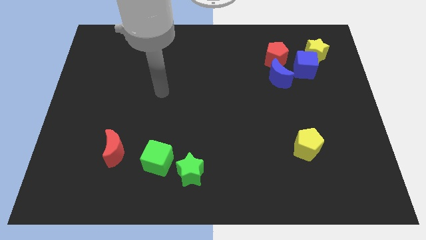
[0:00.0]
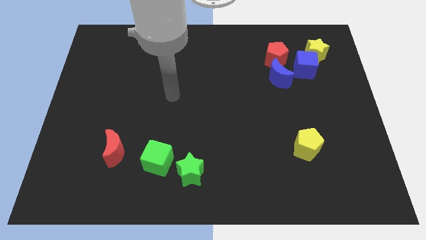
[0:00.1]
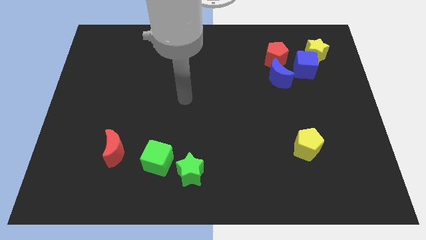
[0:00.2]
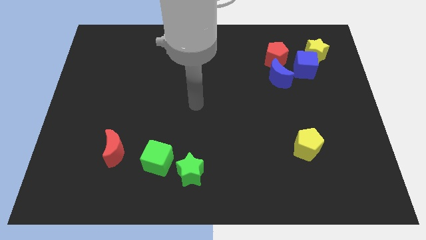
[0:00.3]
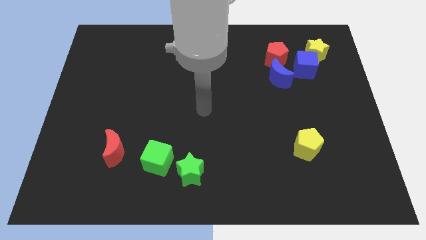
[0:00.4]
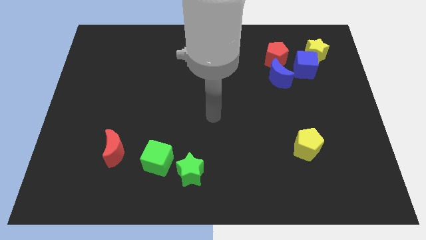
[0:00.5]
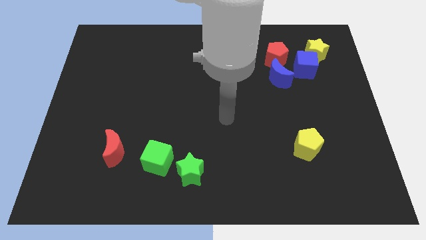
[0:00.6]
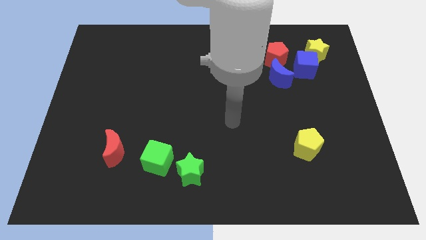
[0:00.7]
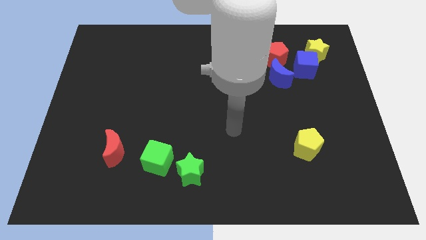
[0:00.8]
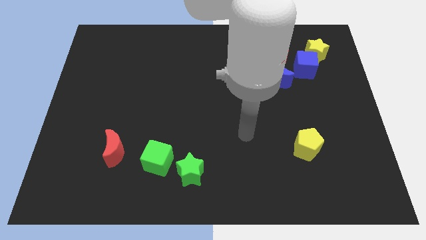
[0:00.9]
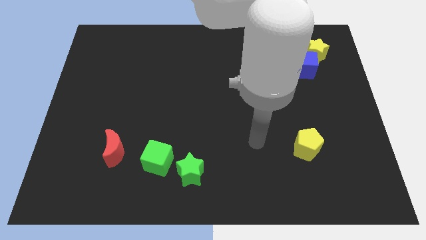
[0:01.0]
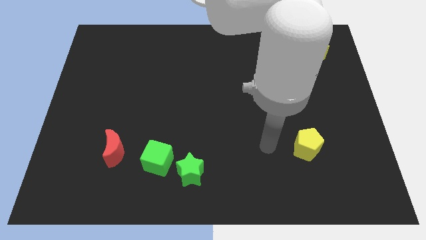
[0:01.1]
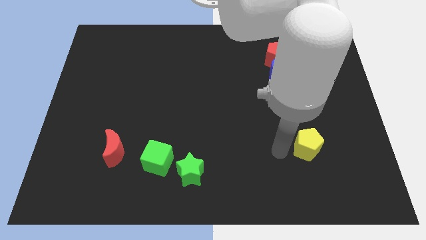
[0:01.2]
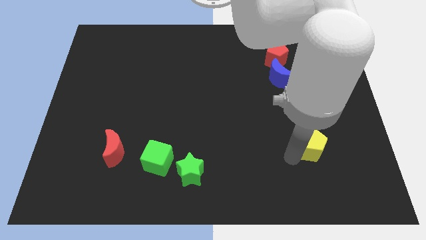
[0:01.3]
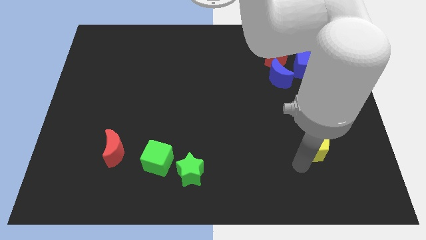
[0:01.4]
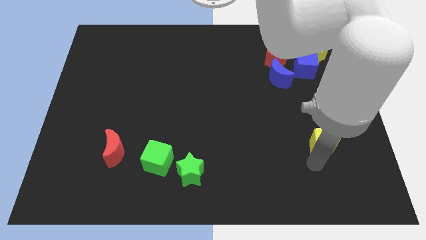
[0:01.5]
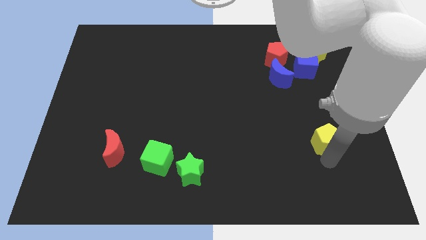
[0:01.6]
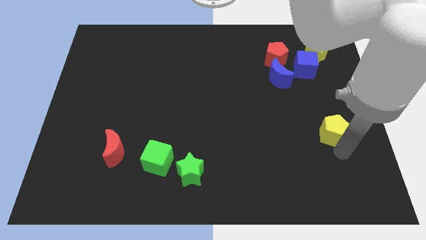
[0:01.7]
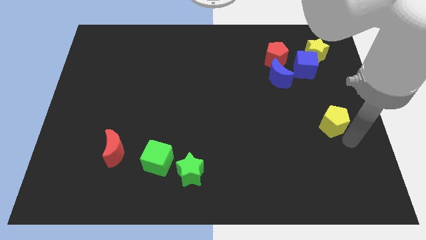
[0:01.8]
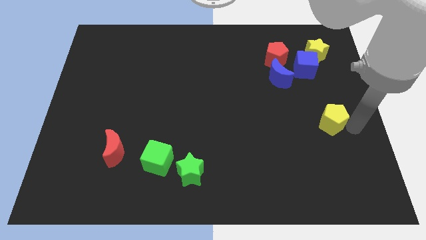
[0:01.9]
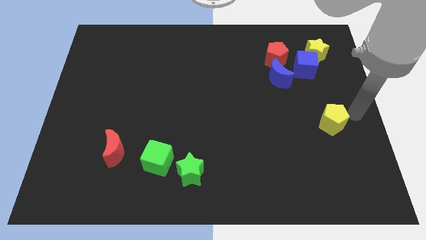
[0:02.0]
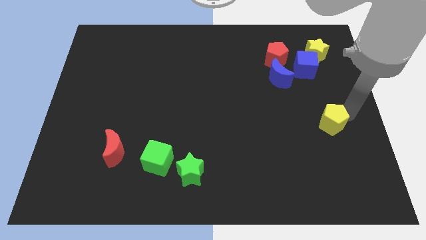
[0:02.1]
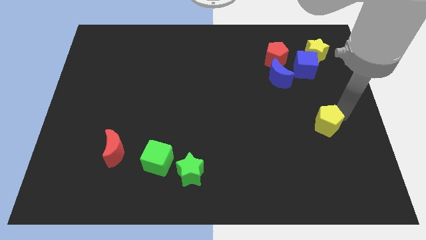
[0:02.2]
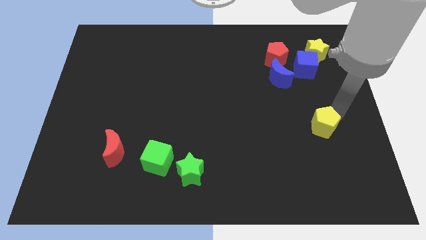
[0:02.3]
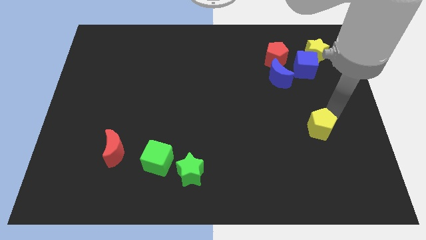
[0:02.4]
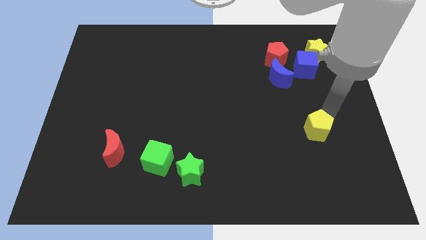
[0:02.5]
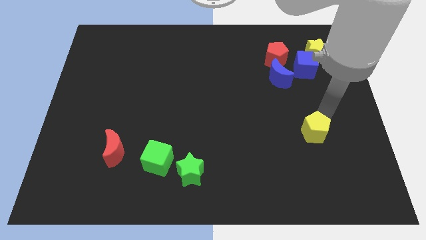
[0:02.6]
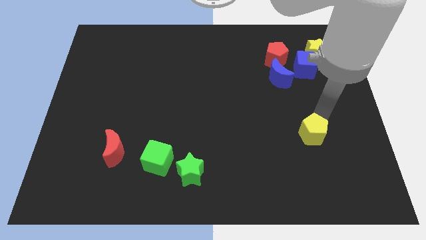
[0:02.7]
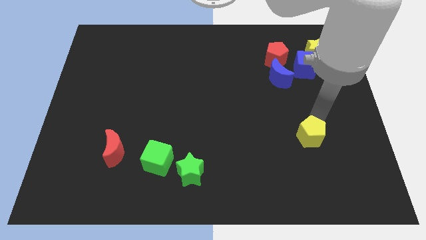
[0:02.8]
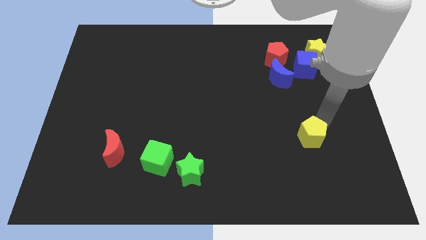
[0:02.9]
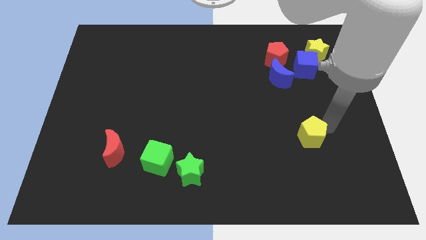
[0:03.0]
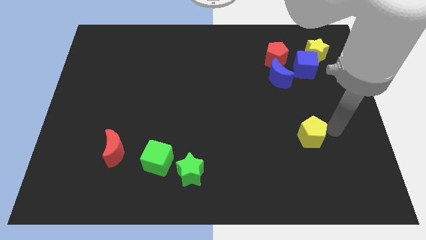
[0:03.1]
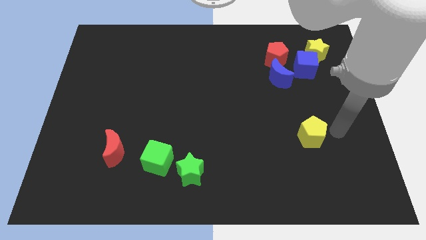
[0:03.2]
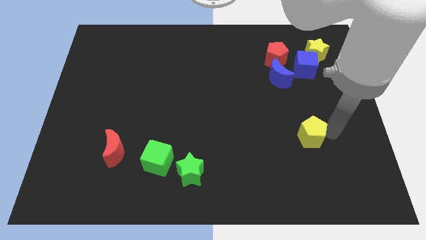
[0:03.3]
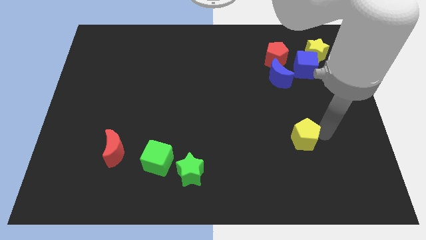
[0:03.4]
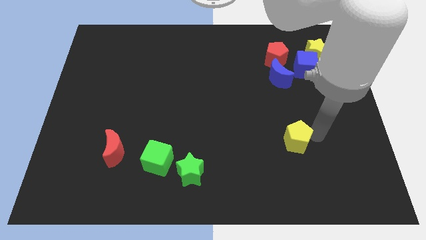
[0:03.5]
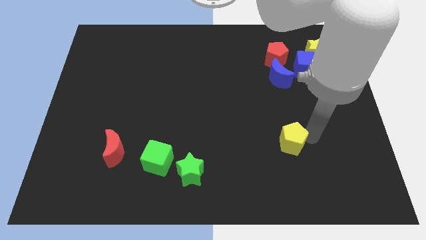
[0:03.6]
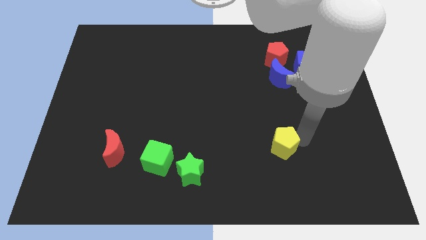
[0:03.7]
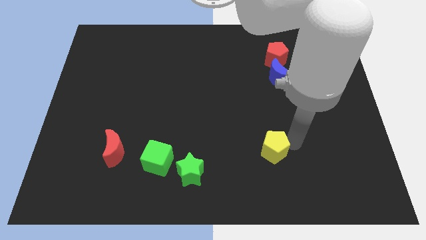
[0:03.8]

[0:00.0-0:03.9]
move the yellow pentagon left slightly

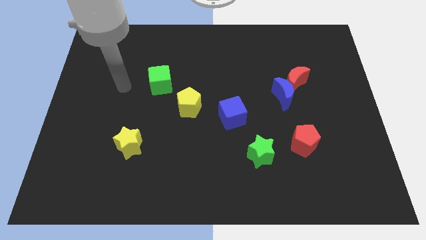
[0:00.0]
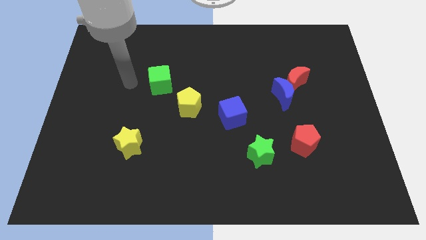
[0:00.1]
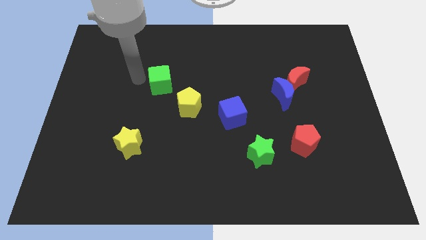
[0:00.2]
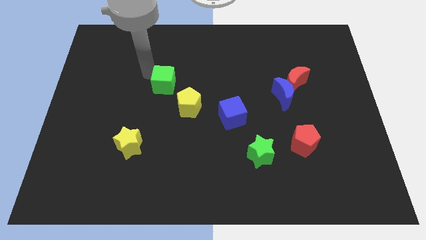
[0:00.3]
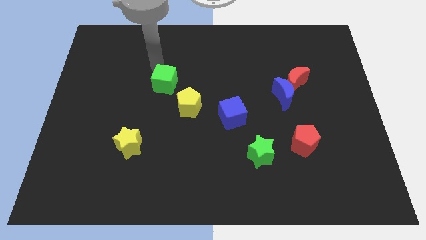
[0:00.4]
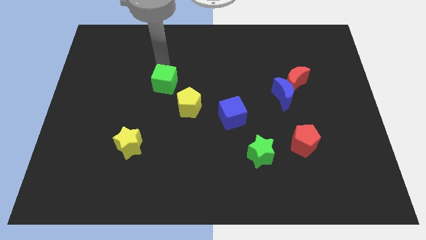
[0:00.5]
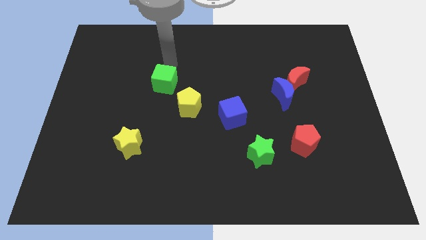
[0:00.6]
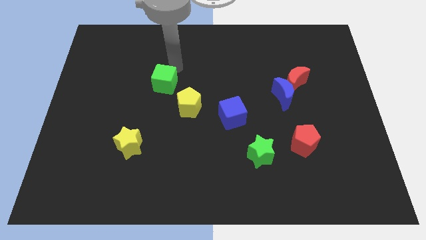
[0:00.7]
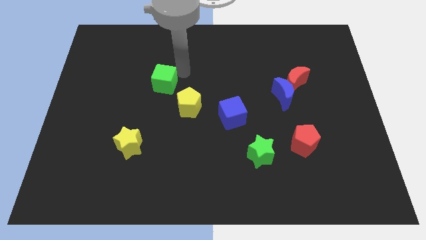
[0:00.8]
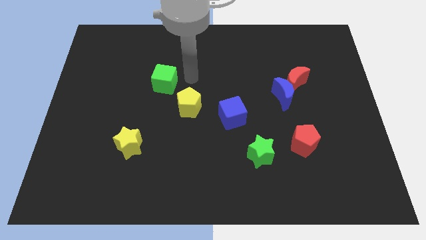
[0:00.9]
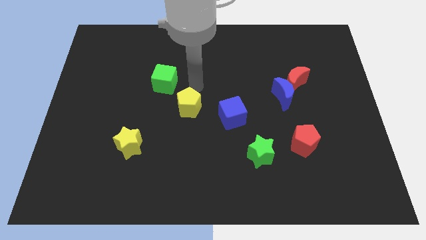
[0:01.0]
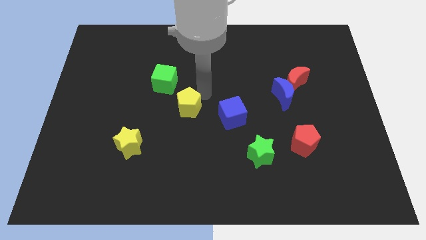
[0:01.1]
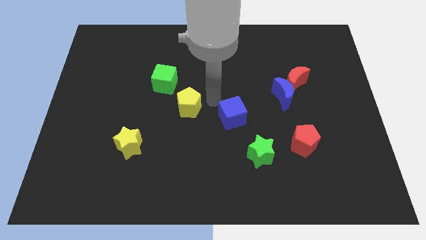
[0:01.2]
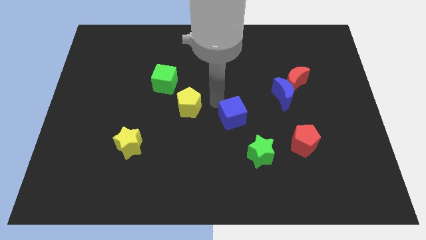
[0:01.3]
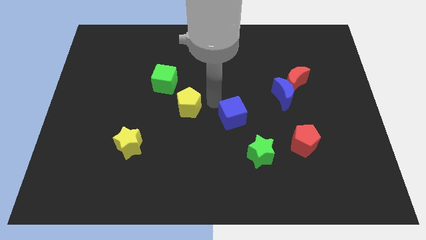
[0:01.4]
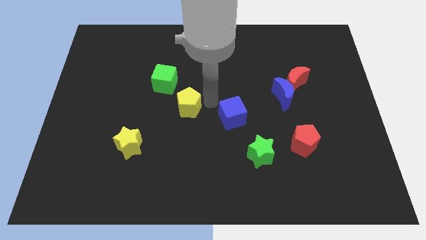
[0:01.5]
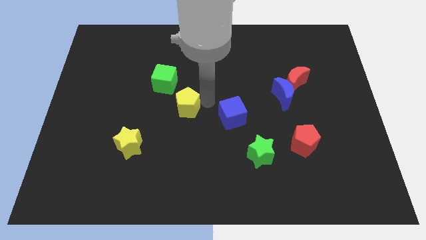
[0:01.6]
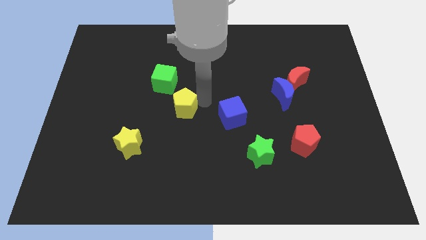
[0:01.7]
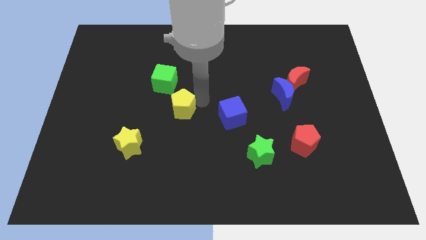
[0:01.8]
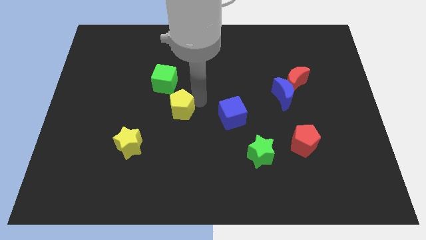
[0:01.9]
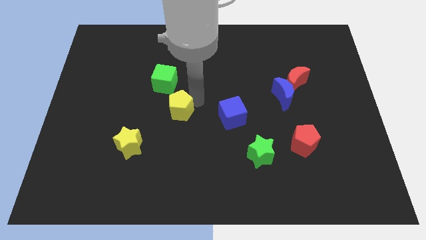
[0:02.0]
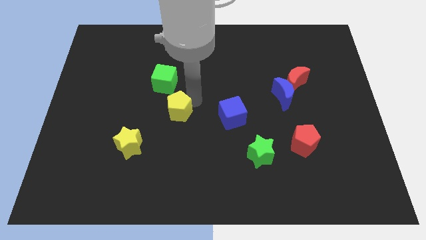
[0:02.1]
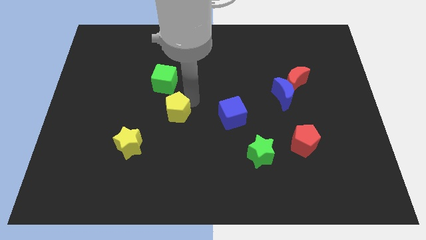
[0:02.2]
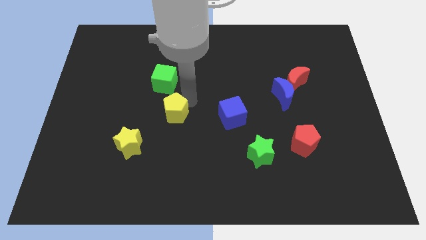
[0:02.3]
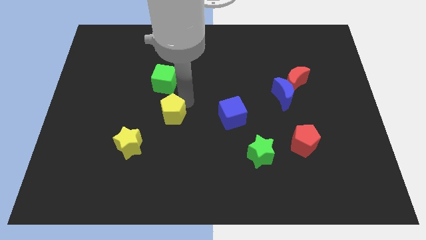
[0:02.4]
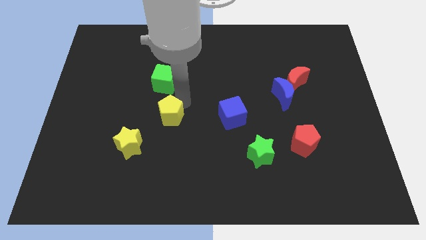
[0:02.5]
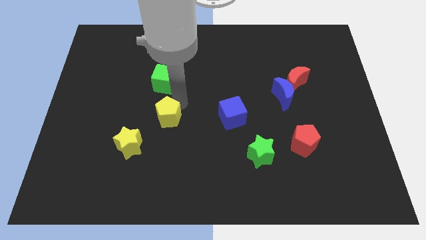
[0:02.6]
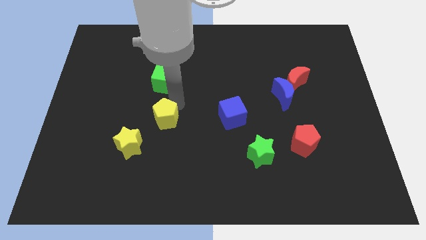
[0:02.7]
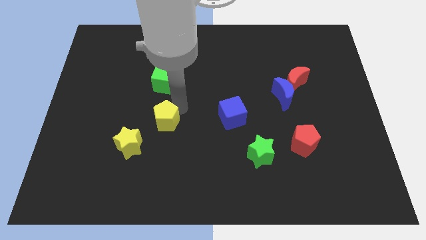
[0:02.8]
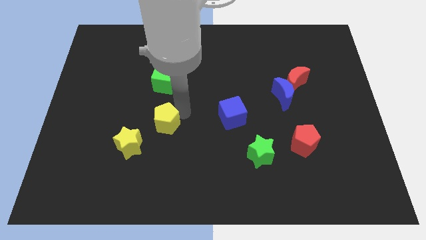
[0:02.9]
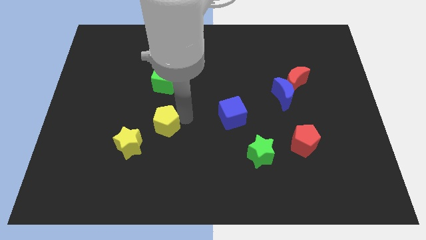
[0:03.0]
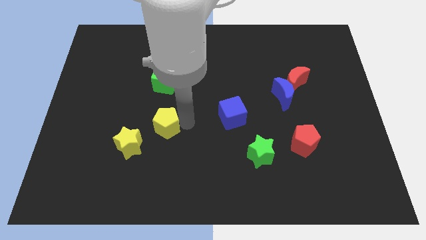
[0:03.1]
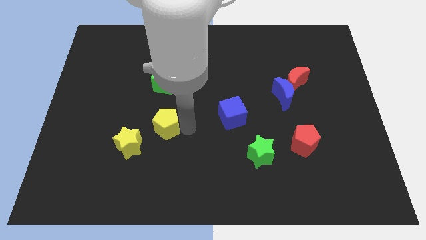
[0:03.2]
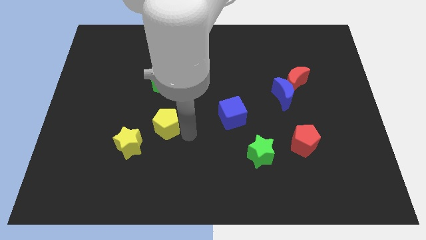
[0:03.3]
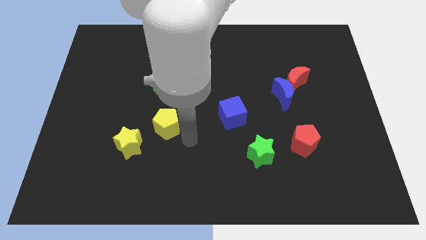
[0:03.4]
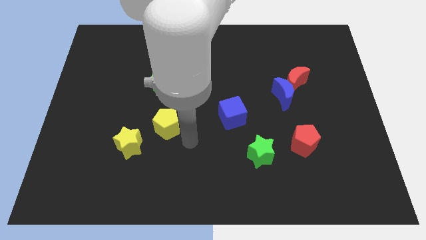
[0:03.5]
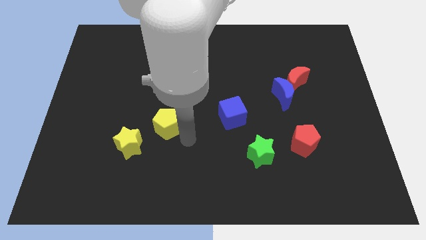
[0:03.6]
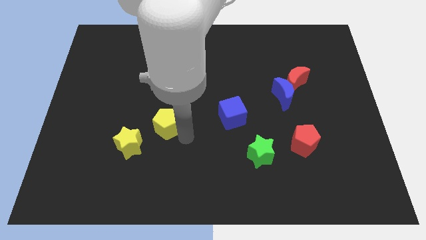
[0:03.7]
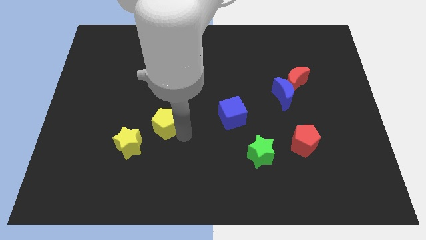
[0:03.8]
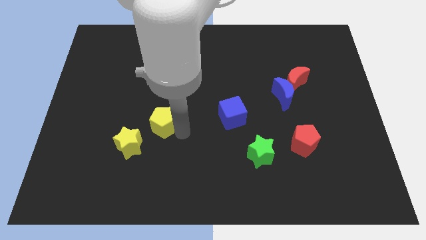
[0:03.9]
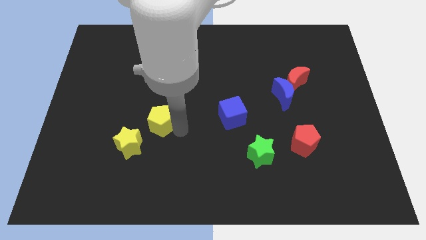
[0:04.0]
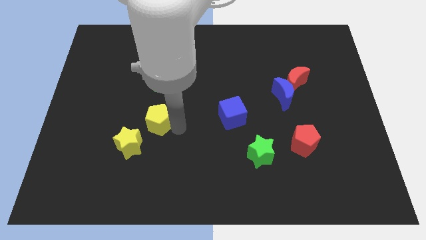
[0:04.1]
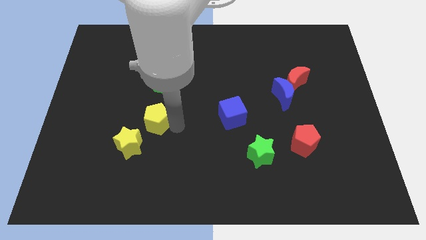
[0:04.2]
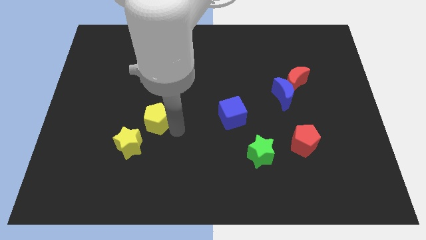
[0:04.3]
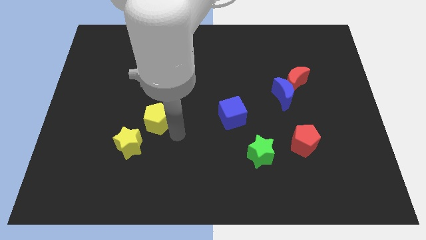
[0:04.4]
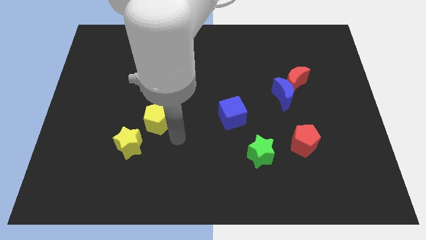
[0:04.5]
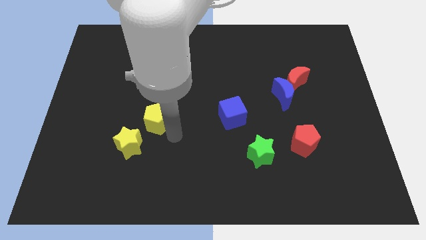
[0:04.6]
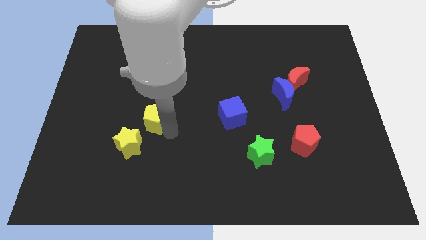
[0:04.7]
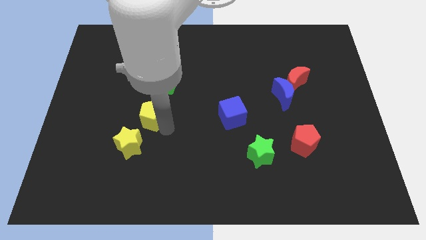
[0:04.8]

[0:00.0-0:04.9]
slide the yellow pentagon left a little

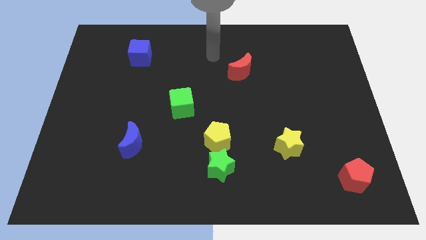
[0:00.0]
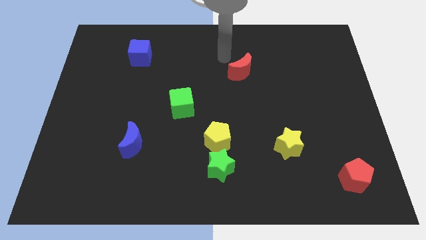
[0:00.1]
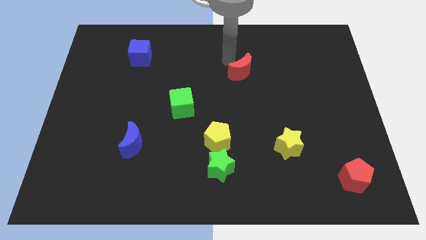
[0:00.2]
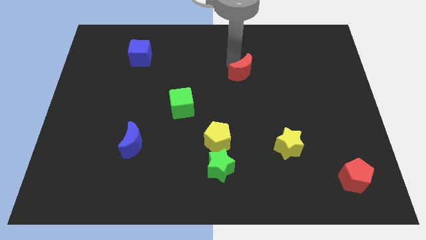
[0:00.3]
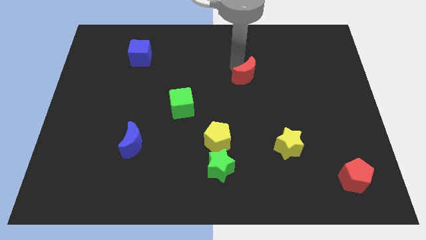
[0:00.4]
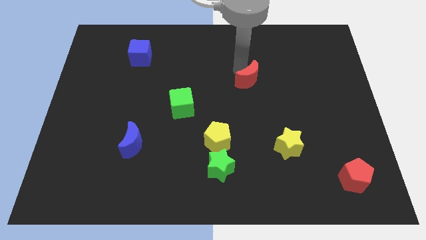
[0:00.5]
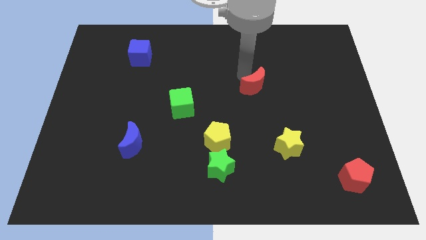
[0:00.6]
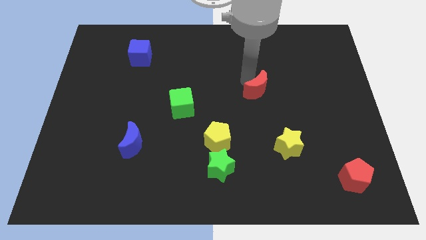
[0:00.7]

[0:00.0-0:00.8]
push the red moon down and then to the right a little bit
